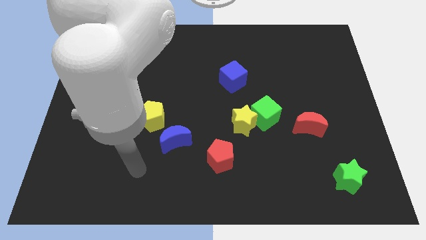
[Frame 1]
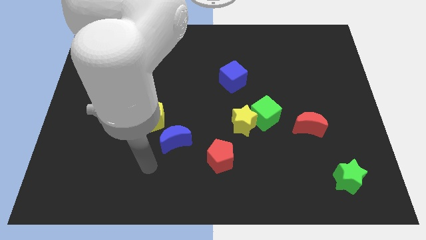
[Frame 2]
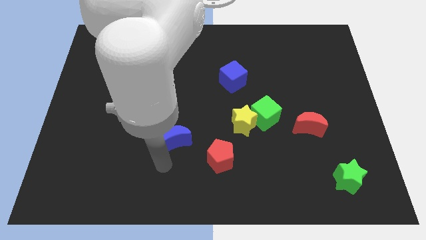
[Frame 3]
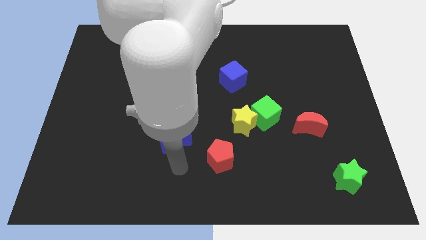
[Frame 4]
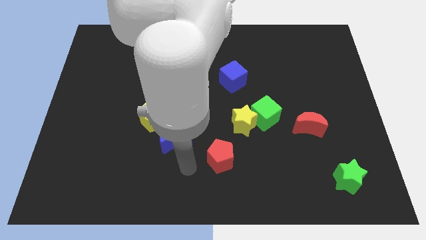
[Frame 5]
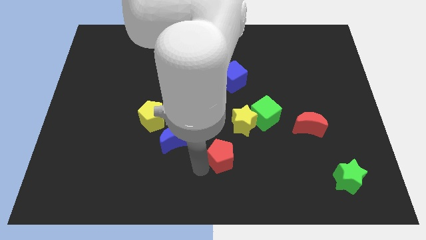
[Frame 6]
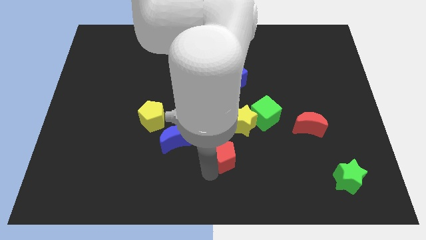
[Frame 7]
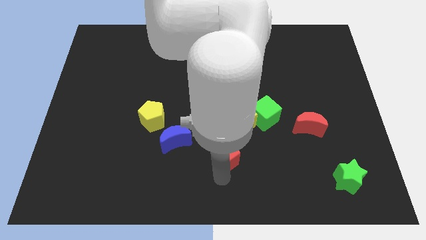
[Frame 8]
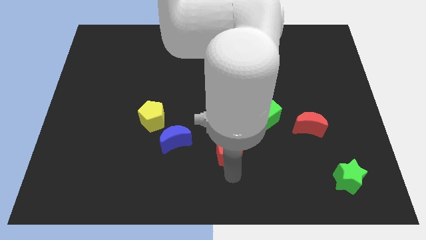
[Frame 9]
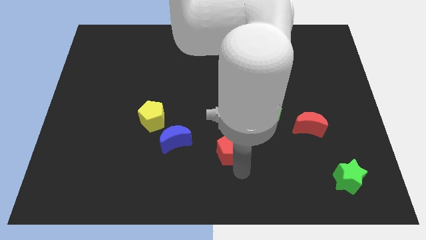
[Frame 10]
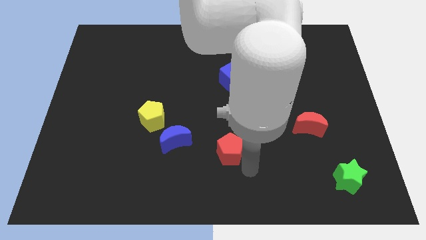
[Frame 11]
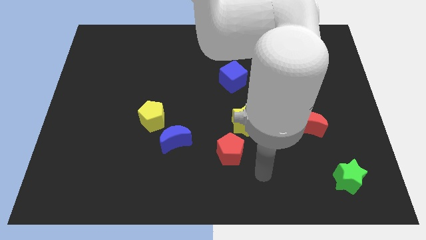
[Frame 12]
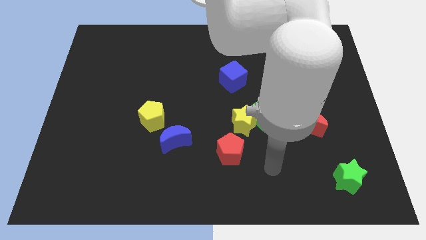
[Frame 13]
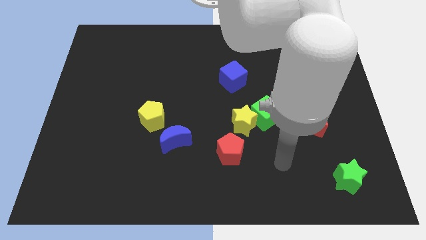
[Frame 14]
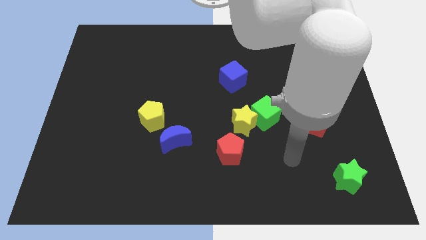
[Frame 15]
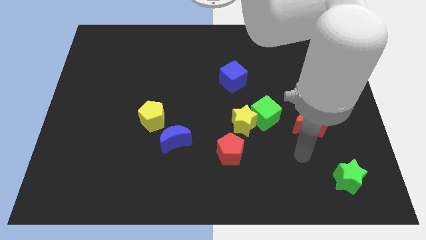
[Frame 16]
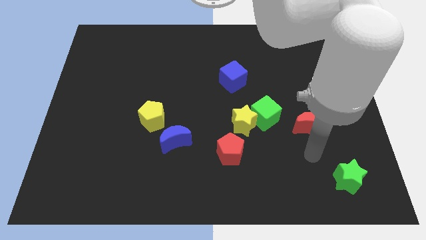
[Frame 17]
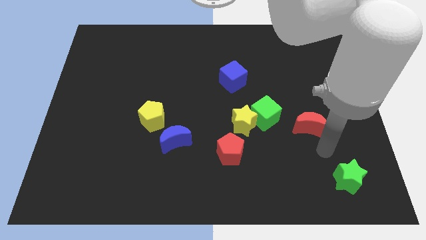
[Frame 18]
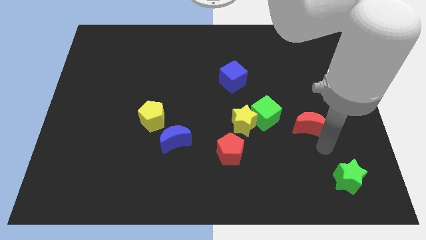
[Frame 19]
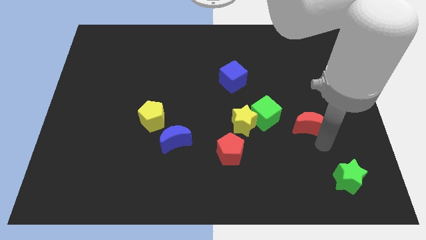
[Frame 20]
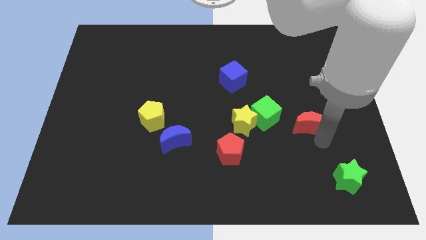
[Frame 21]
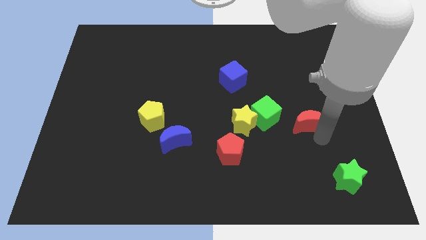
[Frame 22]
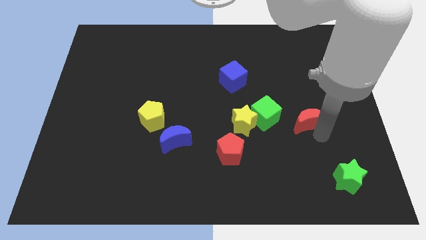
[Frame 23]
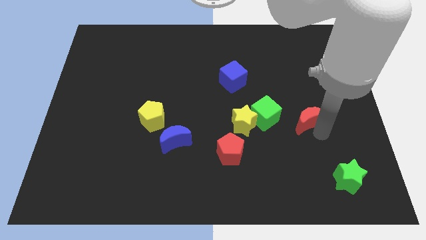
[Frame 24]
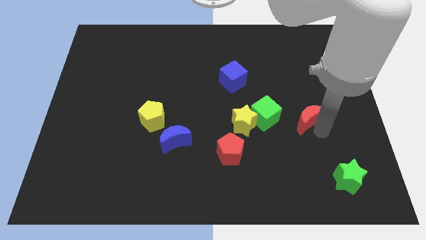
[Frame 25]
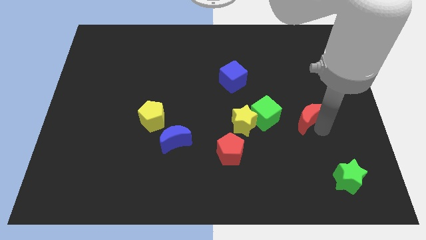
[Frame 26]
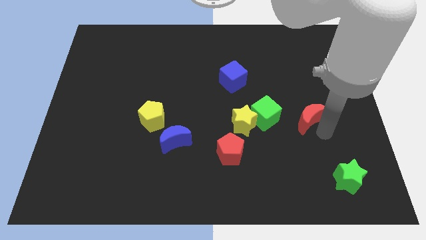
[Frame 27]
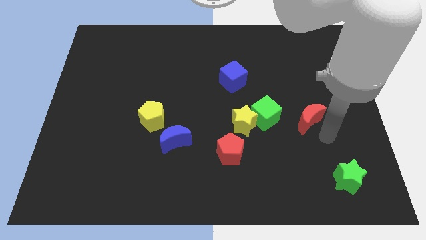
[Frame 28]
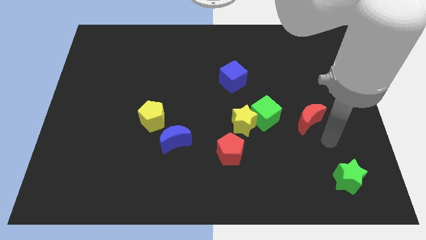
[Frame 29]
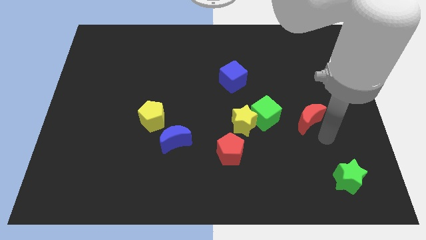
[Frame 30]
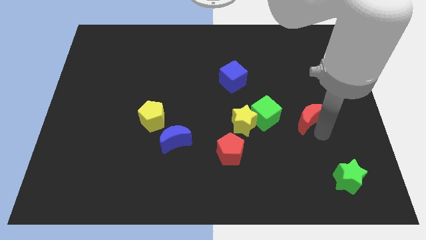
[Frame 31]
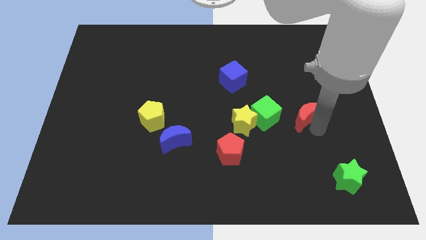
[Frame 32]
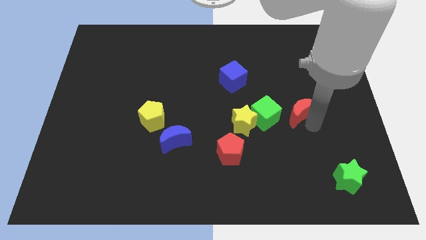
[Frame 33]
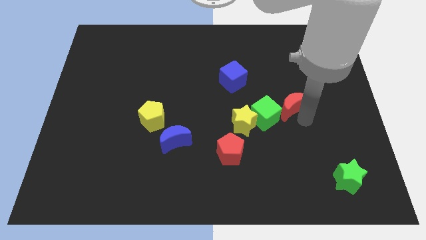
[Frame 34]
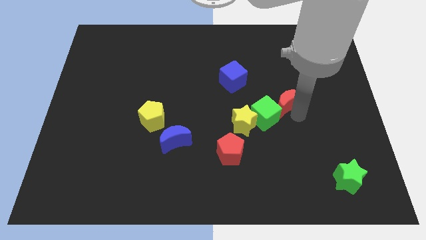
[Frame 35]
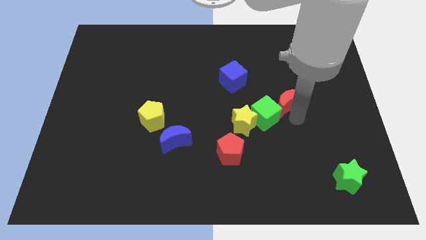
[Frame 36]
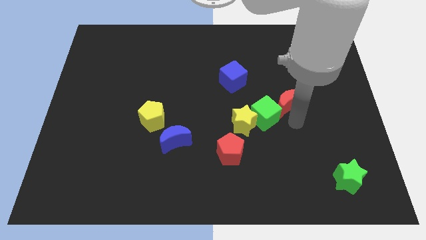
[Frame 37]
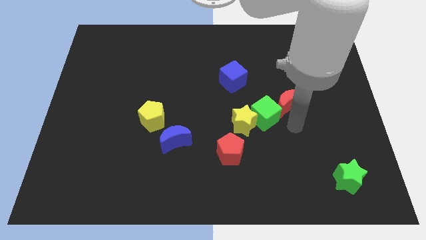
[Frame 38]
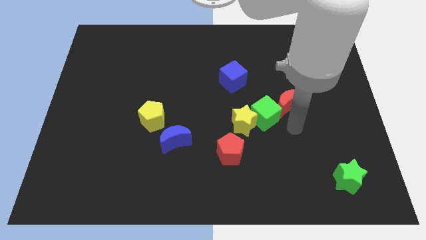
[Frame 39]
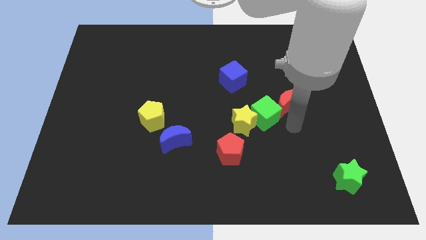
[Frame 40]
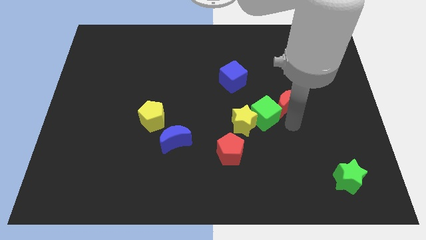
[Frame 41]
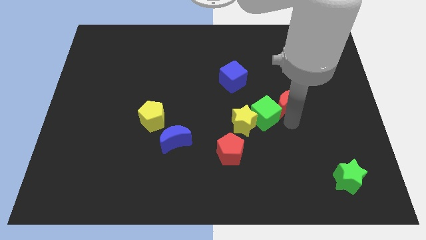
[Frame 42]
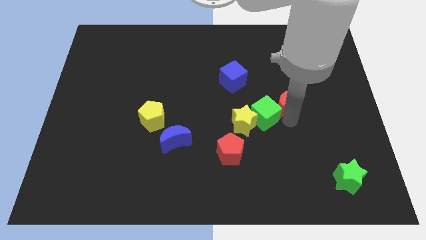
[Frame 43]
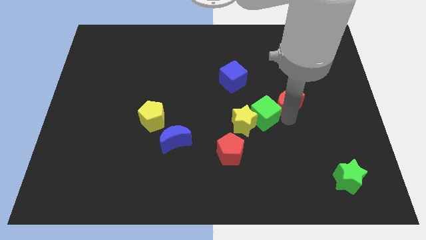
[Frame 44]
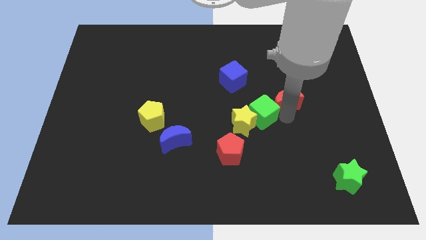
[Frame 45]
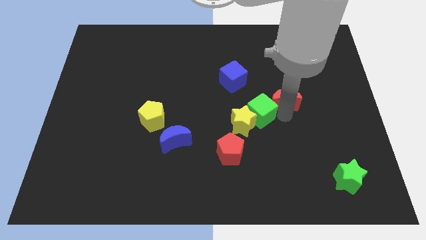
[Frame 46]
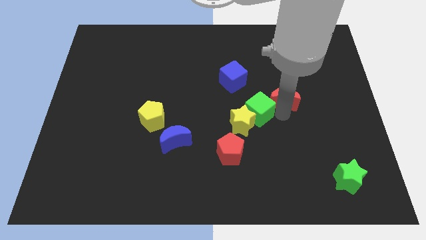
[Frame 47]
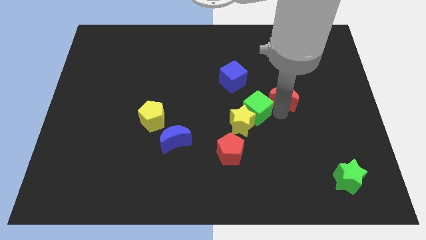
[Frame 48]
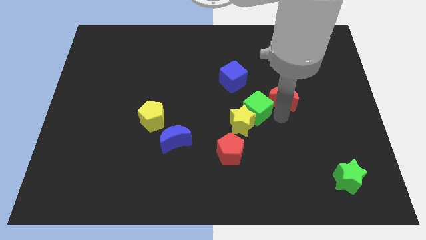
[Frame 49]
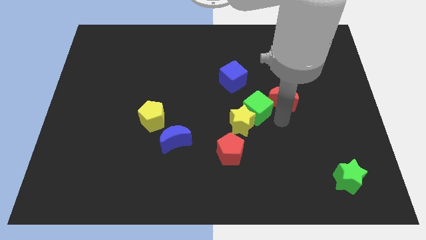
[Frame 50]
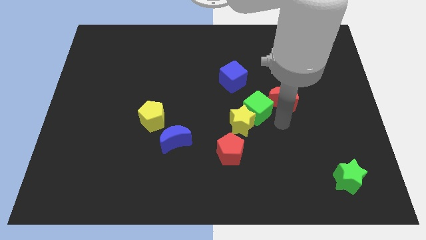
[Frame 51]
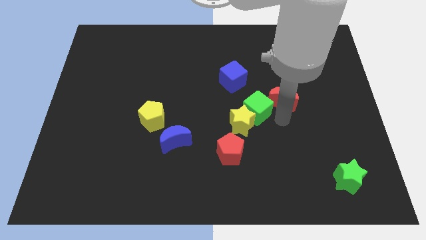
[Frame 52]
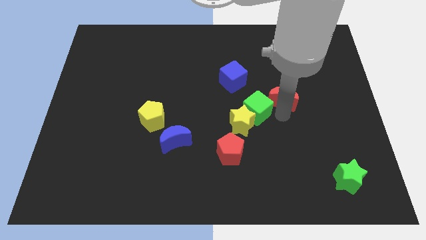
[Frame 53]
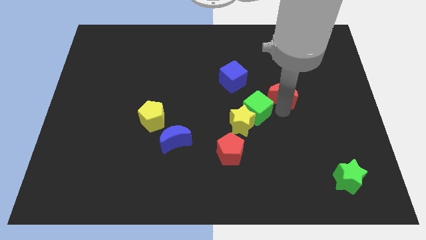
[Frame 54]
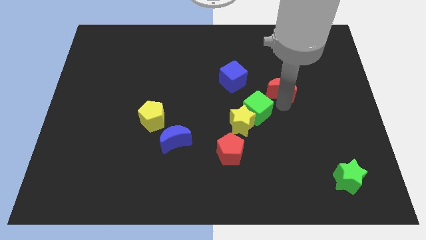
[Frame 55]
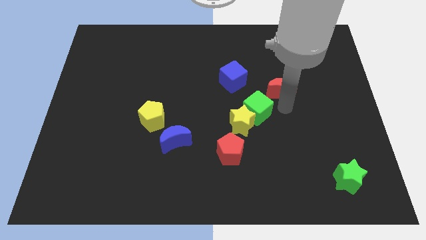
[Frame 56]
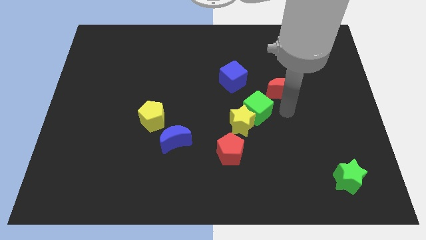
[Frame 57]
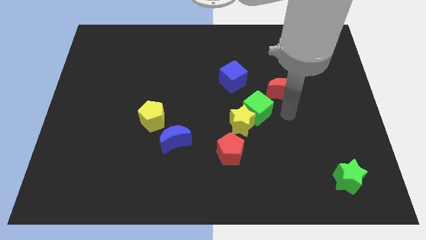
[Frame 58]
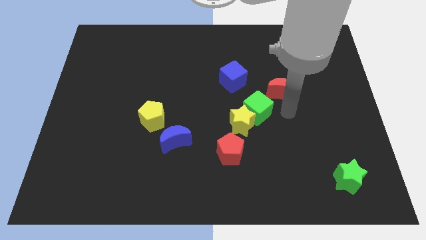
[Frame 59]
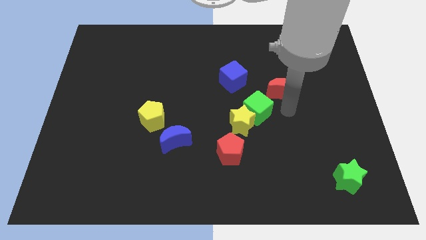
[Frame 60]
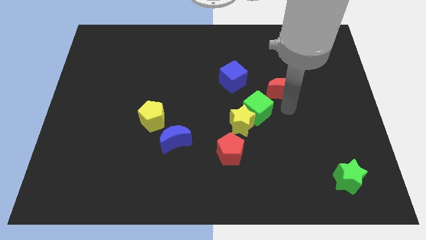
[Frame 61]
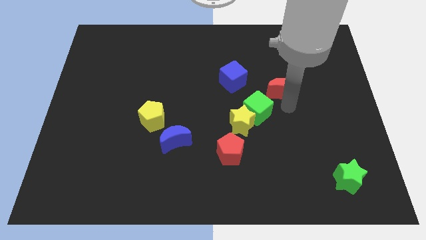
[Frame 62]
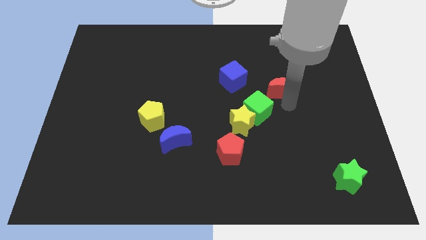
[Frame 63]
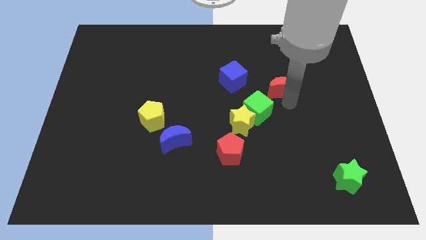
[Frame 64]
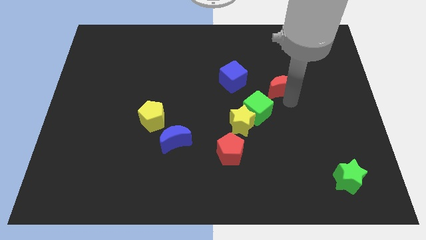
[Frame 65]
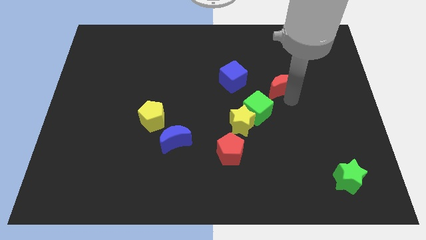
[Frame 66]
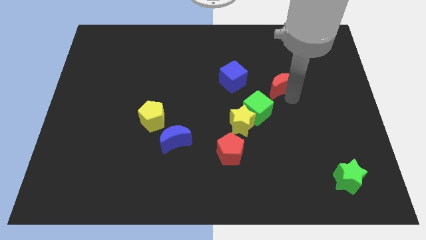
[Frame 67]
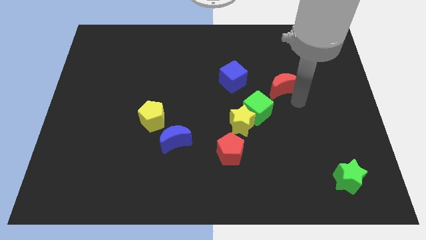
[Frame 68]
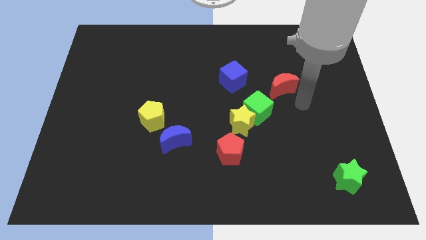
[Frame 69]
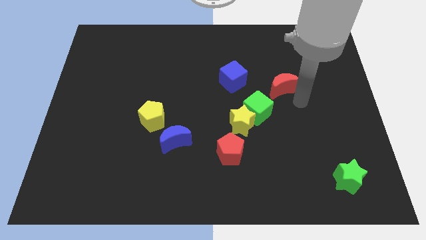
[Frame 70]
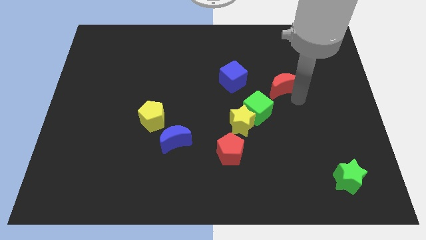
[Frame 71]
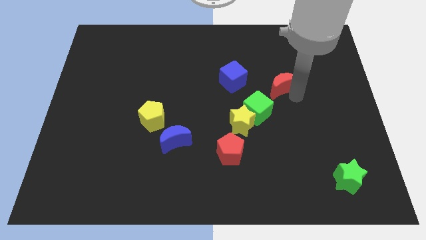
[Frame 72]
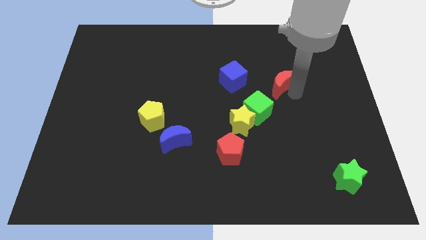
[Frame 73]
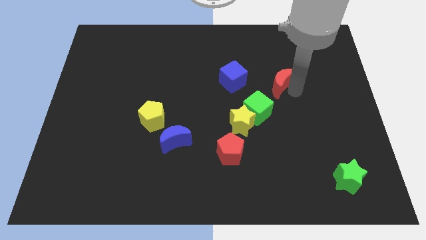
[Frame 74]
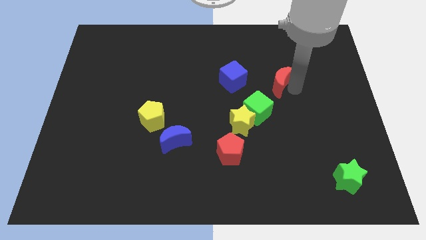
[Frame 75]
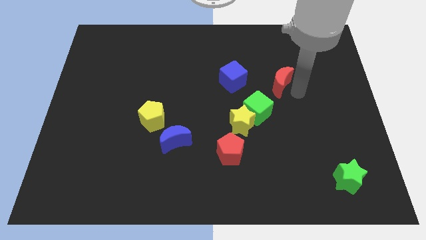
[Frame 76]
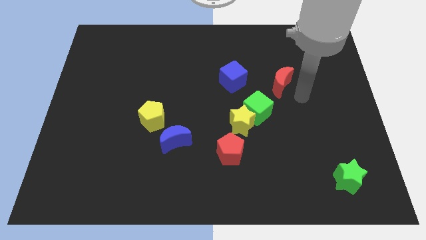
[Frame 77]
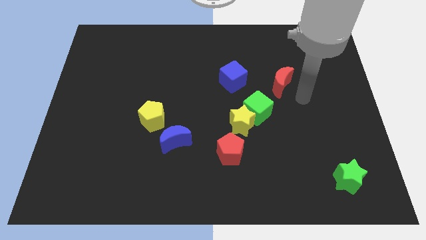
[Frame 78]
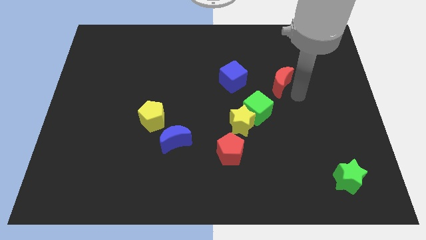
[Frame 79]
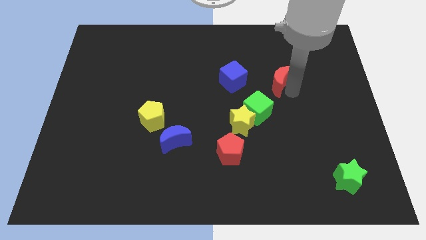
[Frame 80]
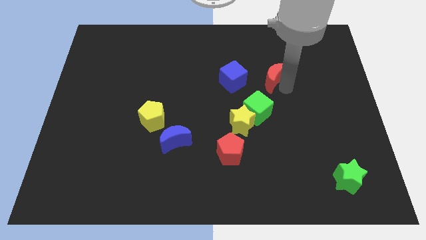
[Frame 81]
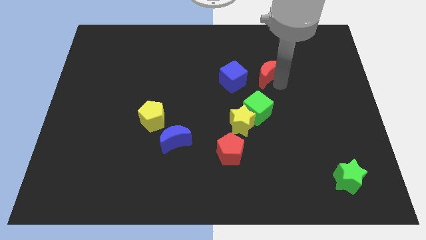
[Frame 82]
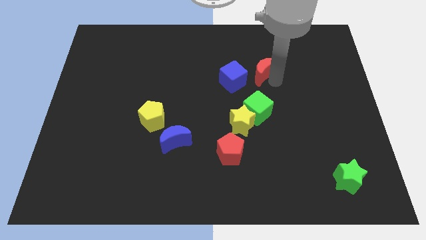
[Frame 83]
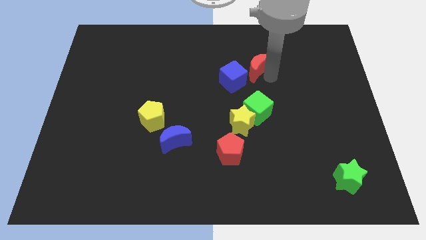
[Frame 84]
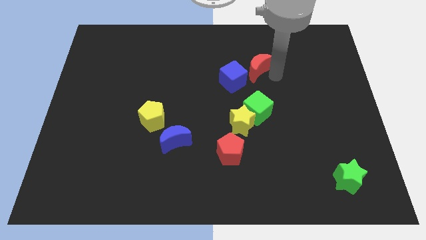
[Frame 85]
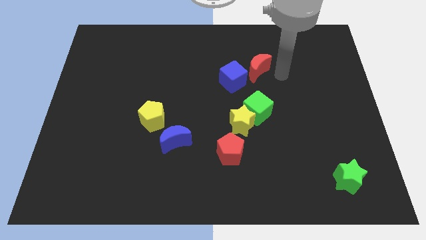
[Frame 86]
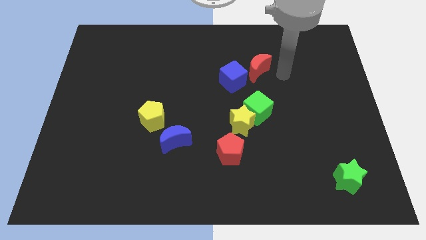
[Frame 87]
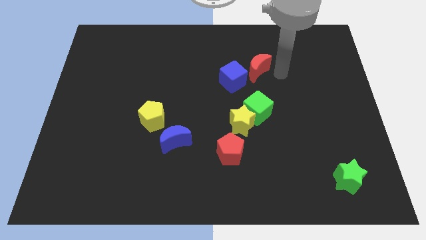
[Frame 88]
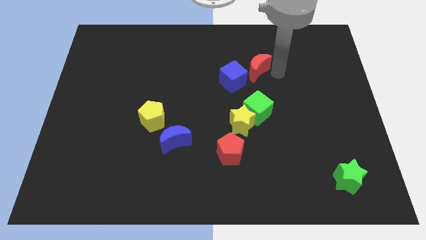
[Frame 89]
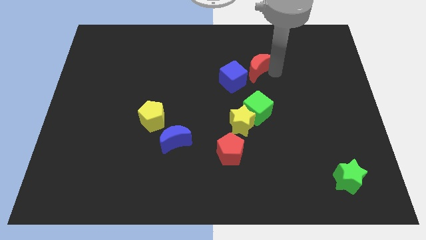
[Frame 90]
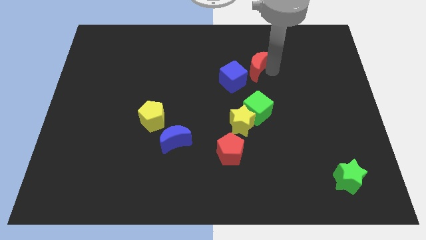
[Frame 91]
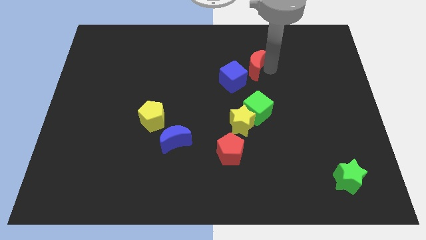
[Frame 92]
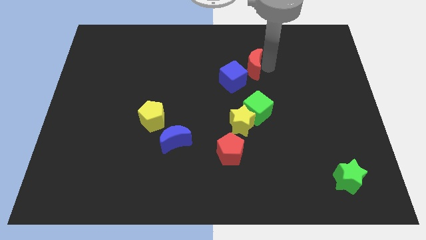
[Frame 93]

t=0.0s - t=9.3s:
push the red moon upwards and then left
